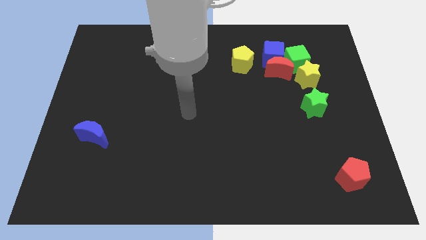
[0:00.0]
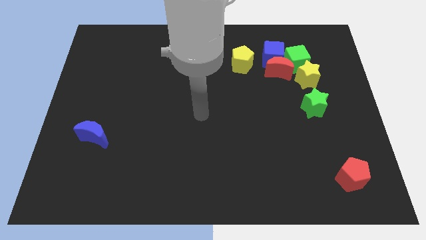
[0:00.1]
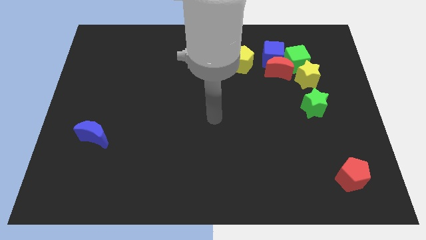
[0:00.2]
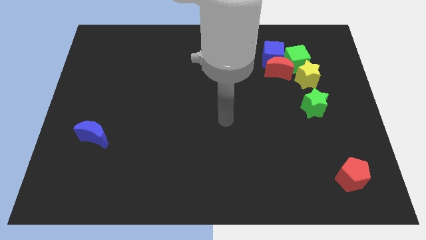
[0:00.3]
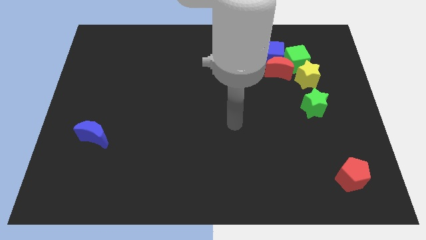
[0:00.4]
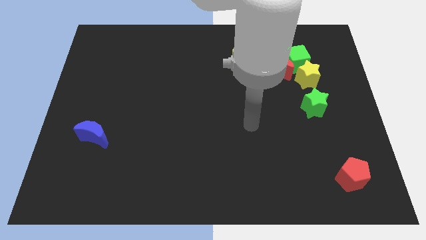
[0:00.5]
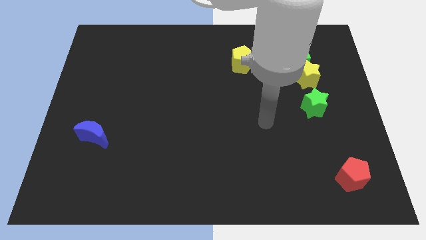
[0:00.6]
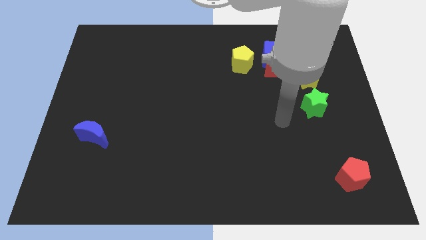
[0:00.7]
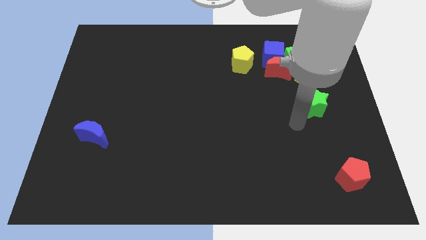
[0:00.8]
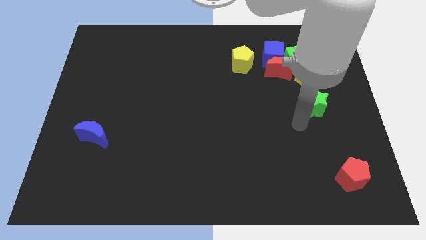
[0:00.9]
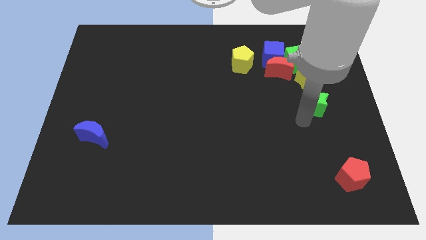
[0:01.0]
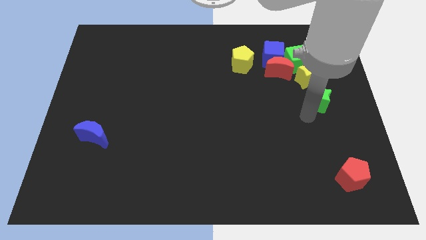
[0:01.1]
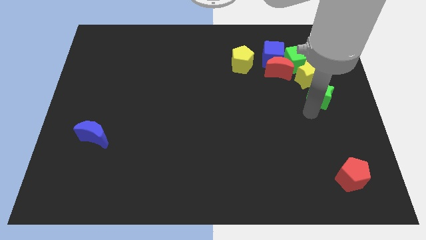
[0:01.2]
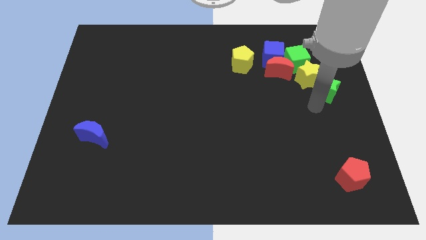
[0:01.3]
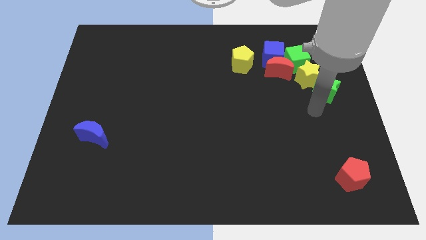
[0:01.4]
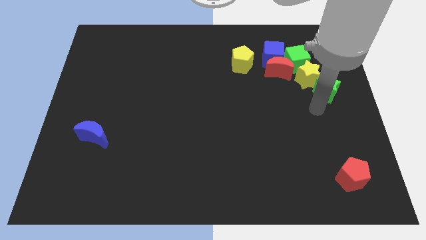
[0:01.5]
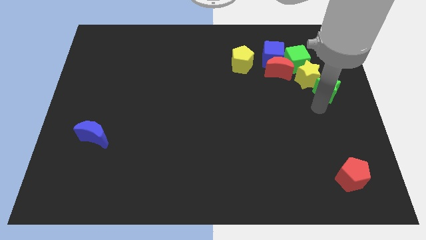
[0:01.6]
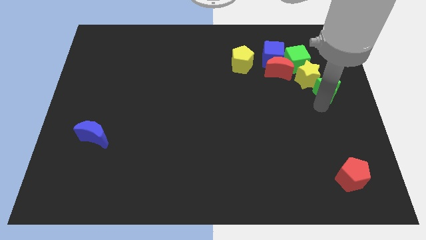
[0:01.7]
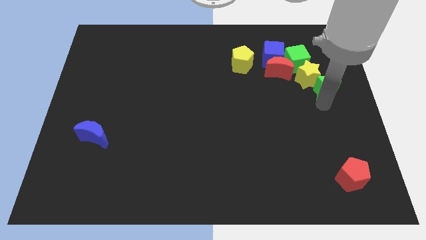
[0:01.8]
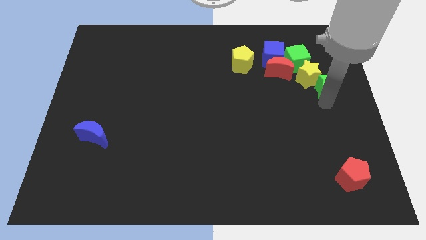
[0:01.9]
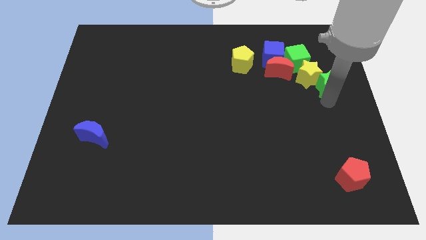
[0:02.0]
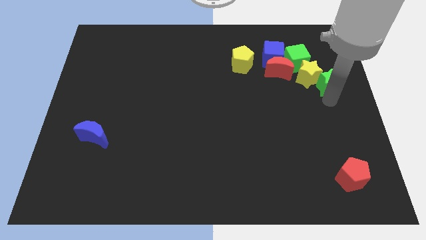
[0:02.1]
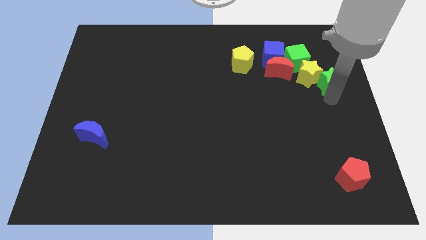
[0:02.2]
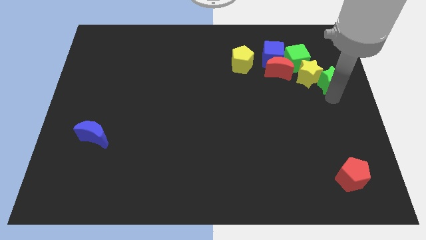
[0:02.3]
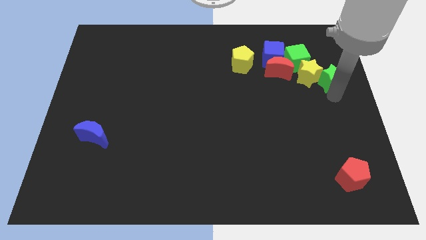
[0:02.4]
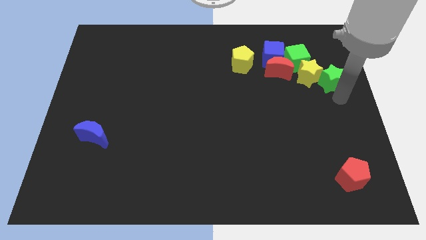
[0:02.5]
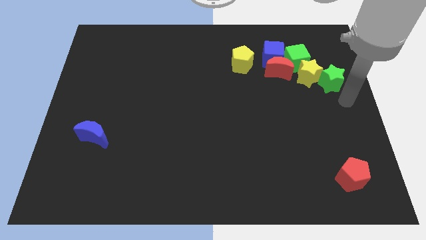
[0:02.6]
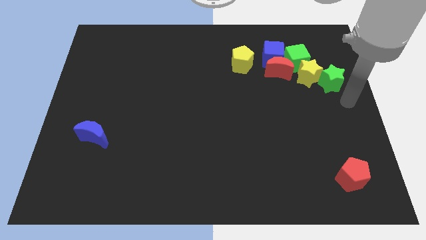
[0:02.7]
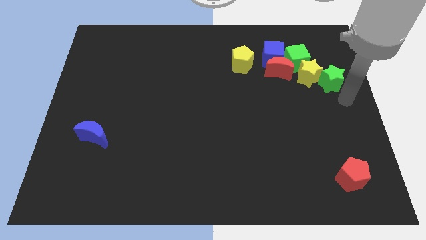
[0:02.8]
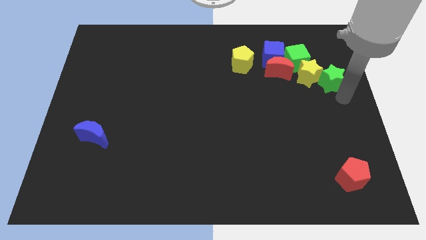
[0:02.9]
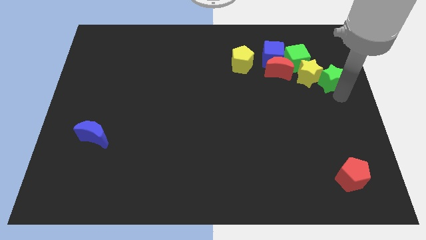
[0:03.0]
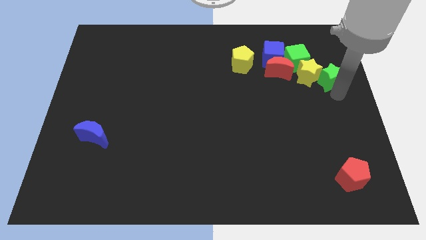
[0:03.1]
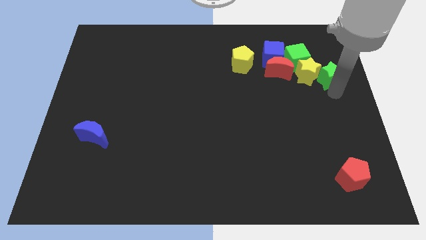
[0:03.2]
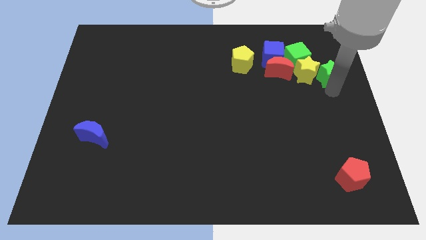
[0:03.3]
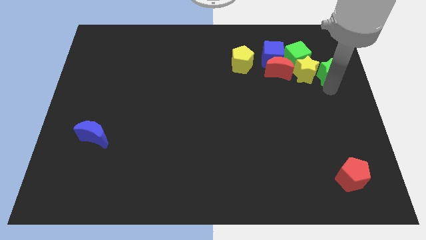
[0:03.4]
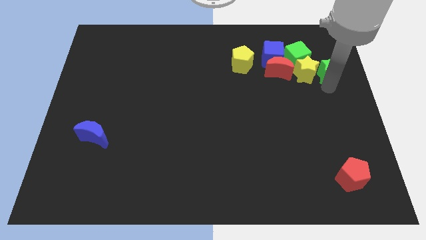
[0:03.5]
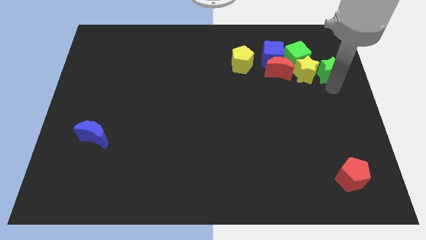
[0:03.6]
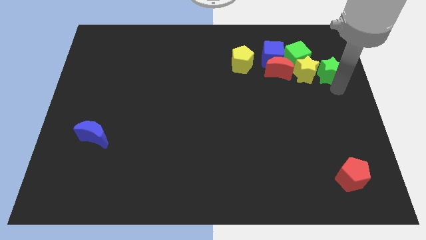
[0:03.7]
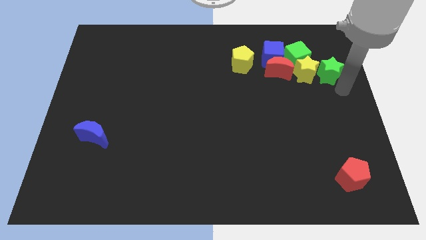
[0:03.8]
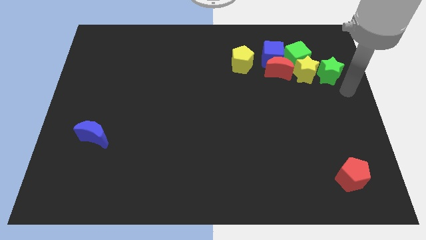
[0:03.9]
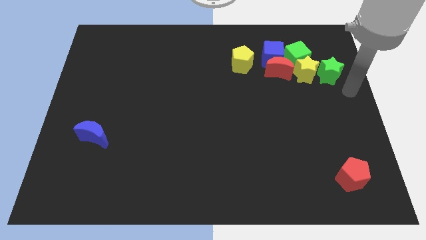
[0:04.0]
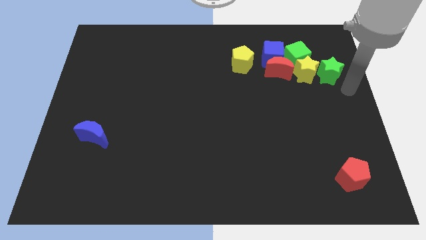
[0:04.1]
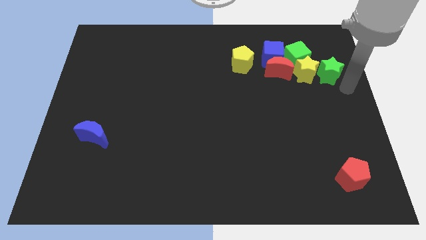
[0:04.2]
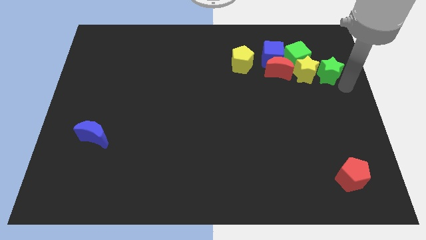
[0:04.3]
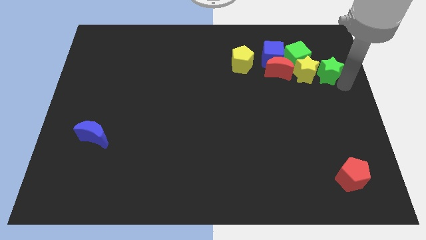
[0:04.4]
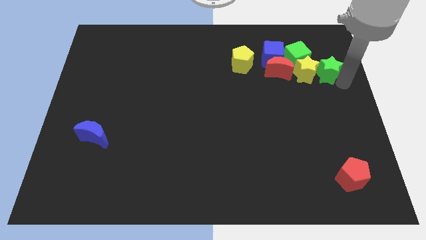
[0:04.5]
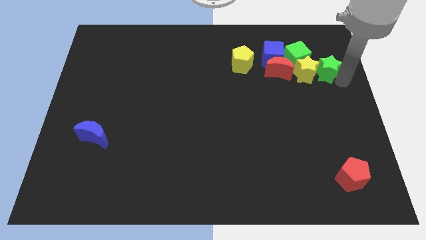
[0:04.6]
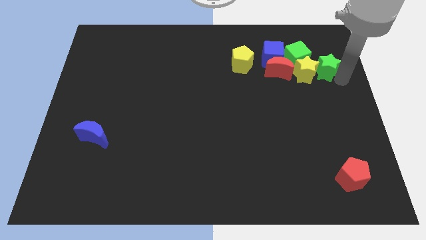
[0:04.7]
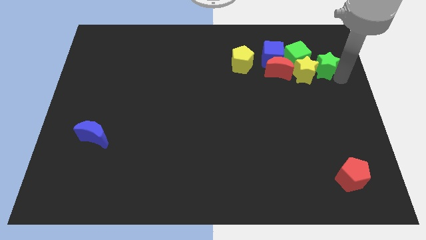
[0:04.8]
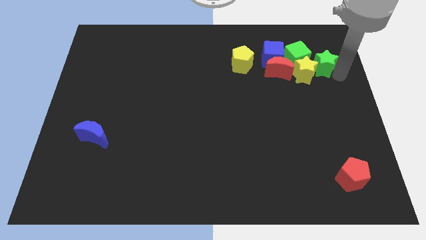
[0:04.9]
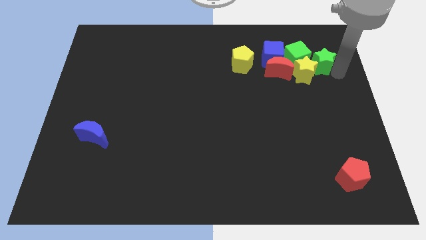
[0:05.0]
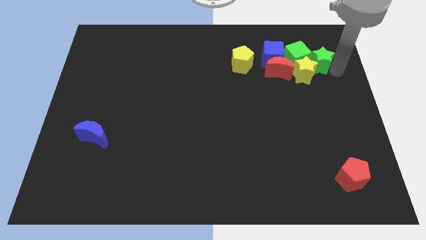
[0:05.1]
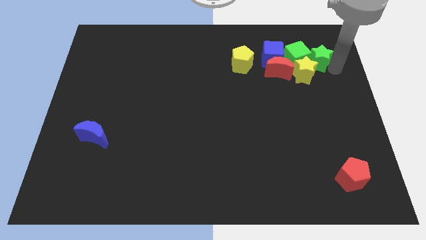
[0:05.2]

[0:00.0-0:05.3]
push the green star to the green cube

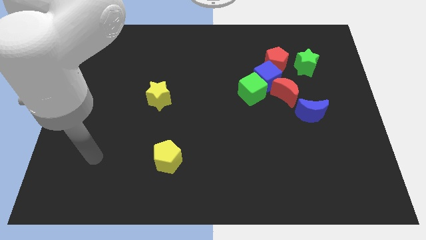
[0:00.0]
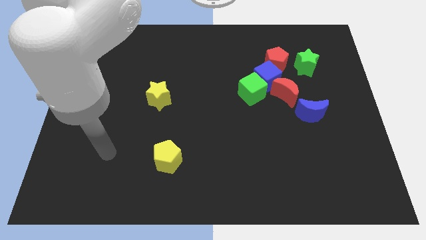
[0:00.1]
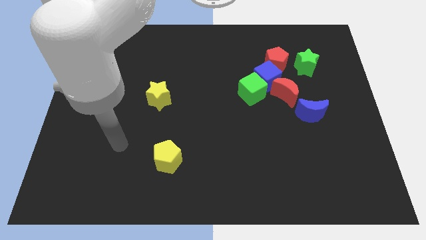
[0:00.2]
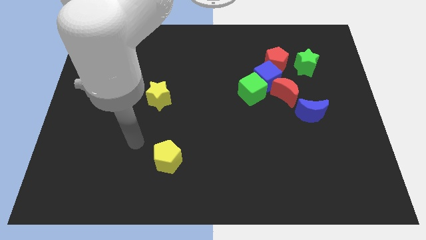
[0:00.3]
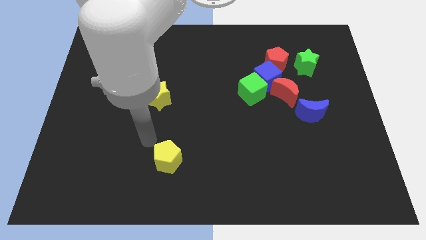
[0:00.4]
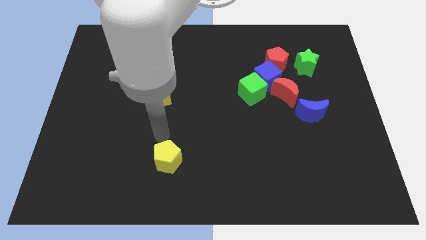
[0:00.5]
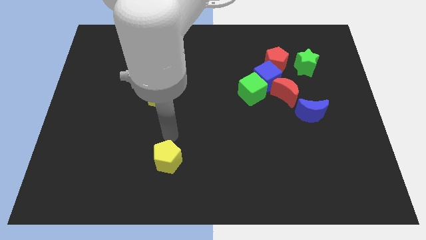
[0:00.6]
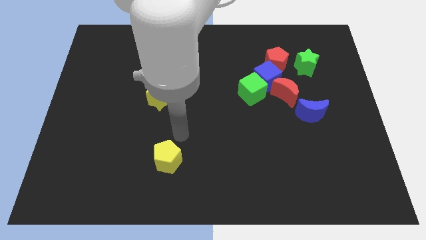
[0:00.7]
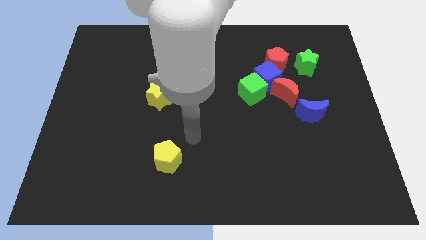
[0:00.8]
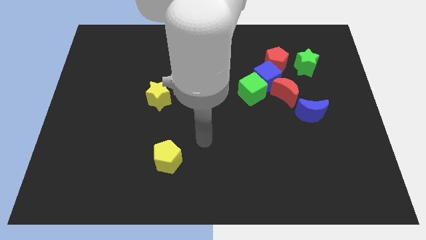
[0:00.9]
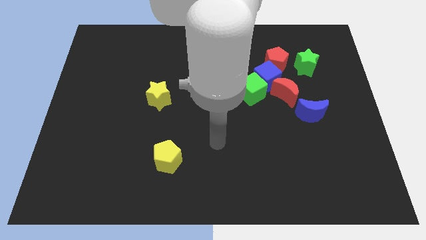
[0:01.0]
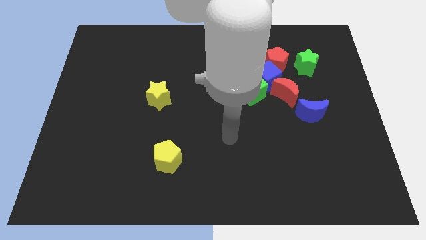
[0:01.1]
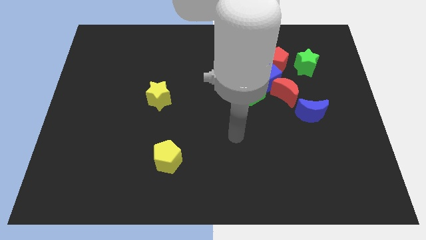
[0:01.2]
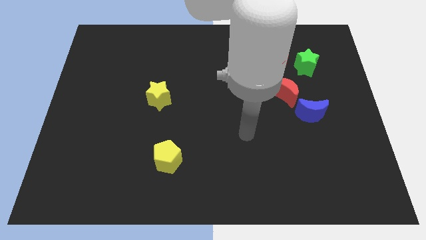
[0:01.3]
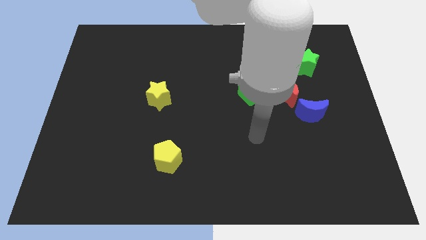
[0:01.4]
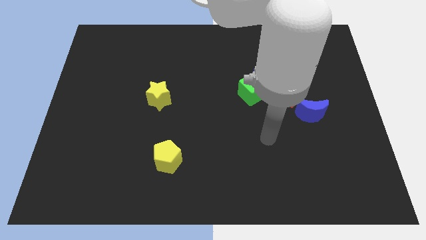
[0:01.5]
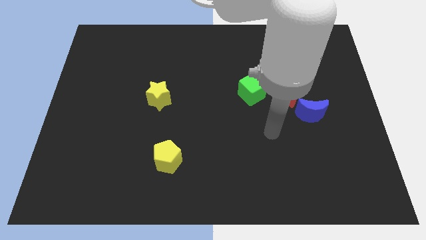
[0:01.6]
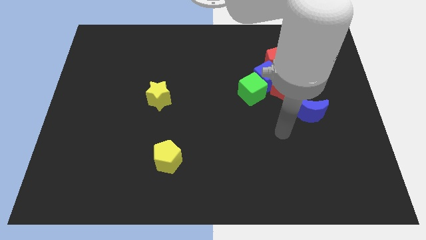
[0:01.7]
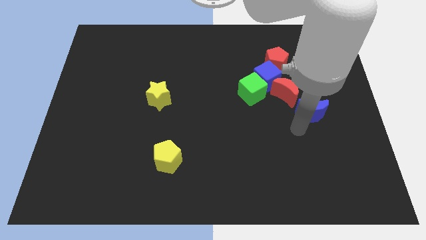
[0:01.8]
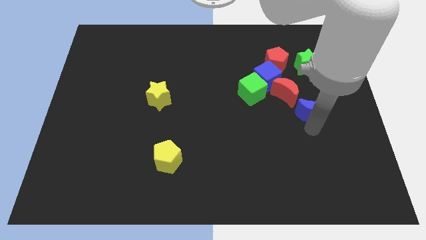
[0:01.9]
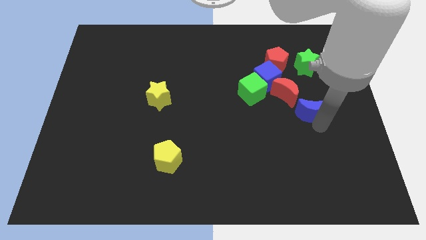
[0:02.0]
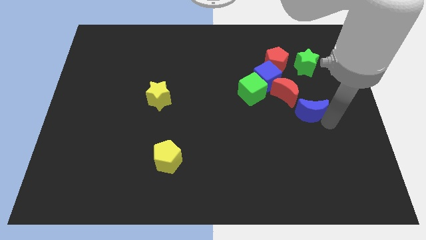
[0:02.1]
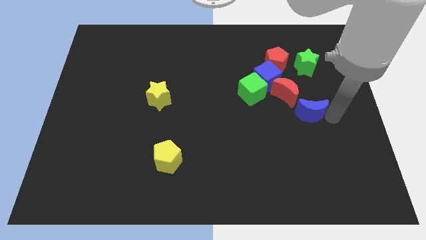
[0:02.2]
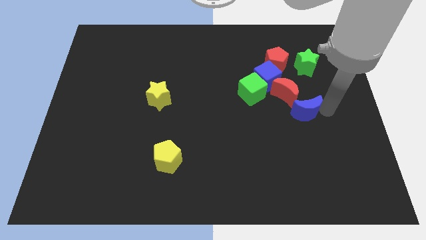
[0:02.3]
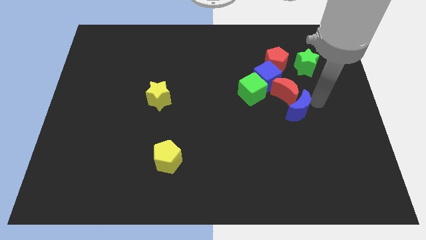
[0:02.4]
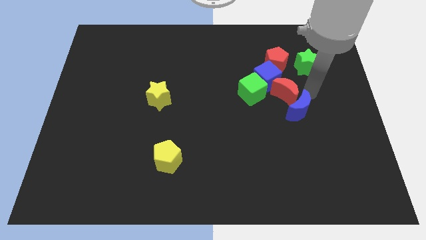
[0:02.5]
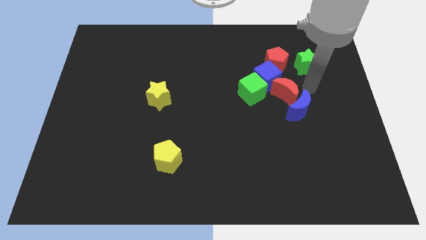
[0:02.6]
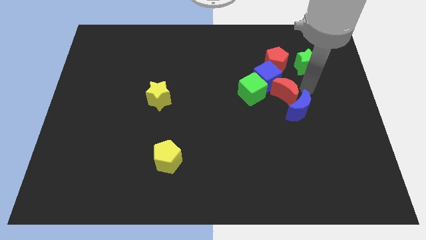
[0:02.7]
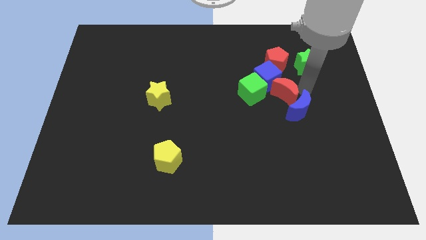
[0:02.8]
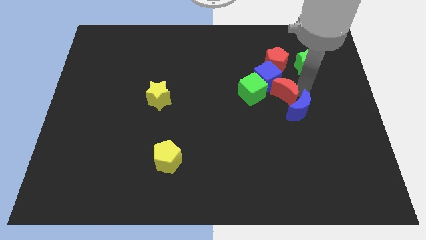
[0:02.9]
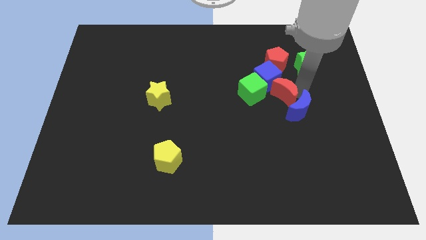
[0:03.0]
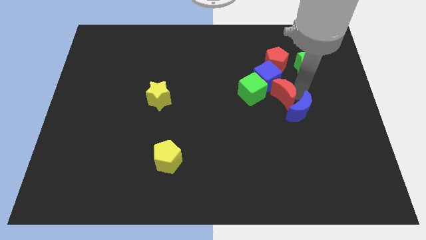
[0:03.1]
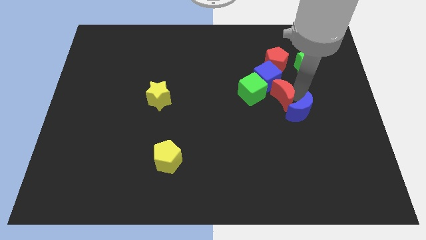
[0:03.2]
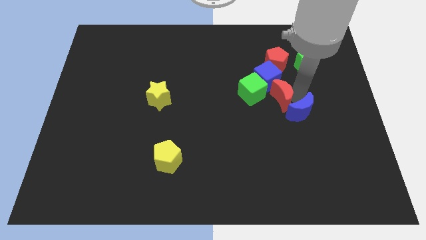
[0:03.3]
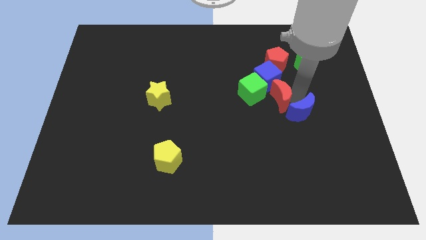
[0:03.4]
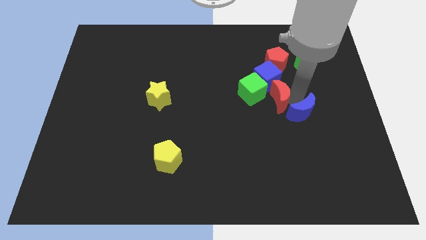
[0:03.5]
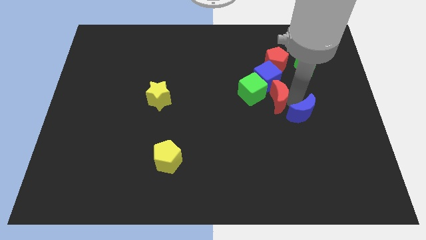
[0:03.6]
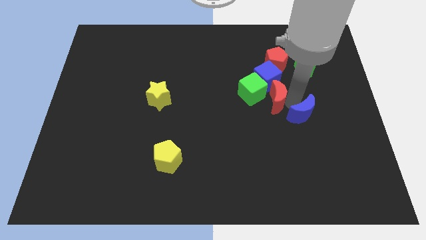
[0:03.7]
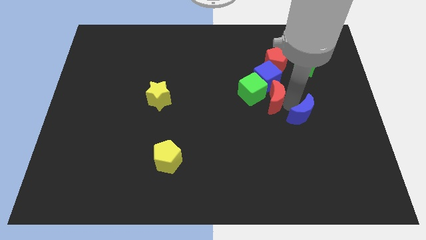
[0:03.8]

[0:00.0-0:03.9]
slide the red moon next to the green cube
